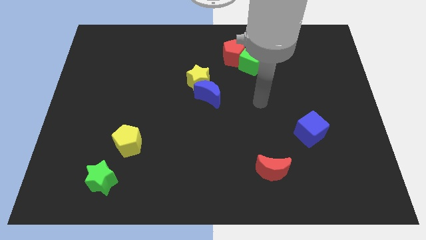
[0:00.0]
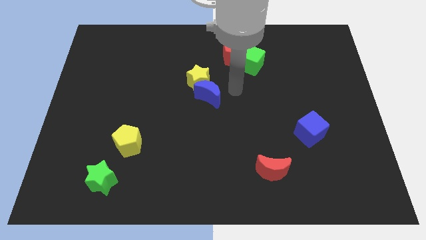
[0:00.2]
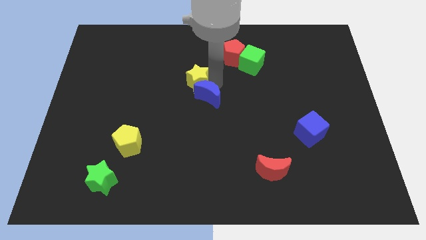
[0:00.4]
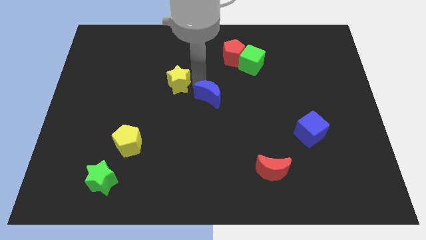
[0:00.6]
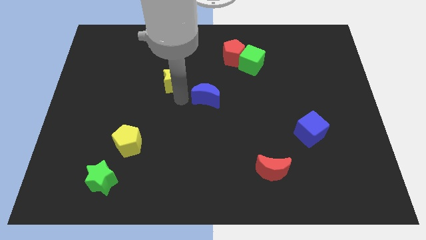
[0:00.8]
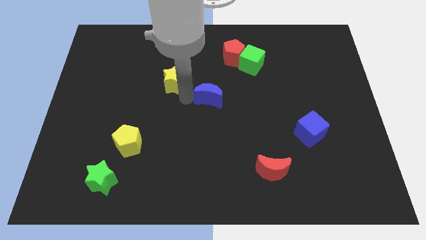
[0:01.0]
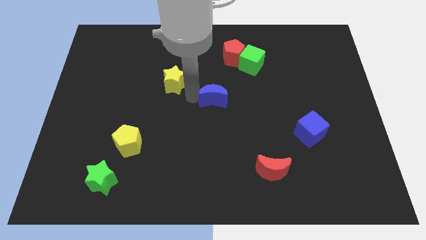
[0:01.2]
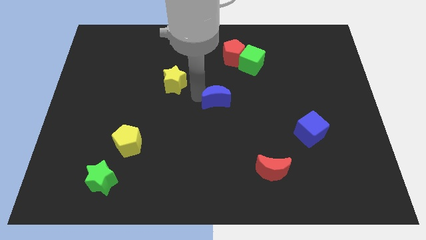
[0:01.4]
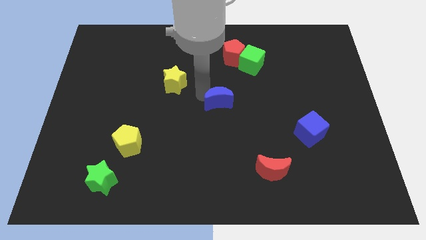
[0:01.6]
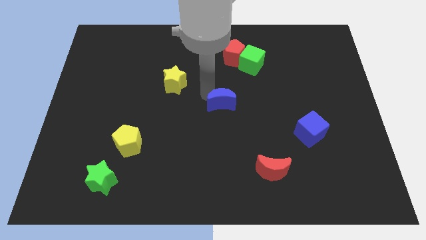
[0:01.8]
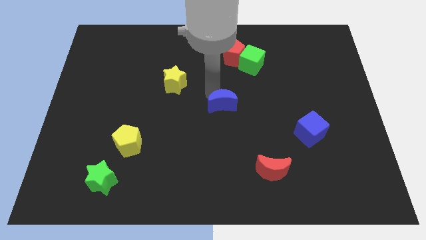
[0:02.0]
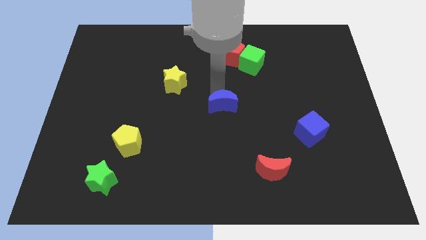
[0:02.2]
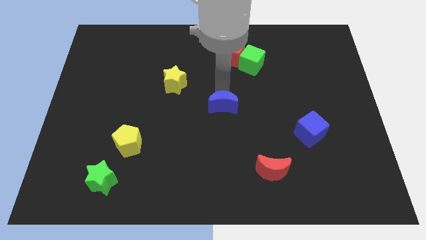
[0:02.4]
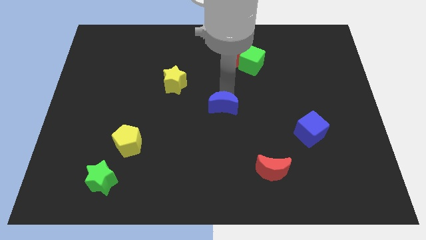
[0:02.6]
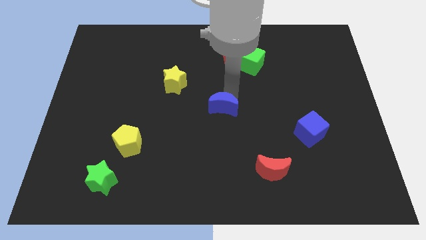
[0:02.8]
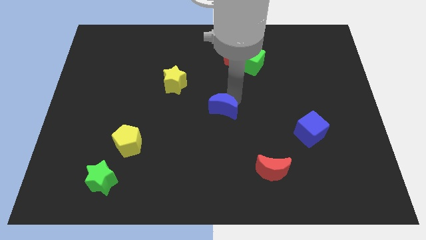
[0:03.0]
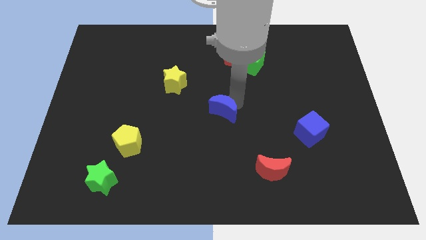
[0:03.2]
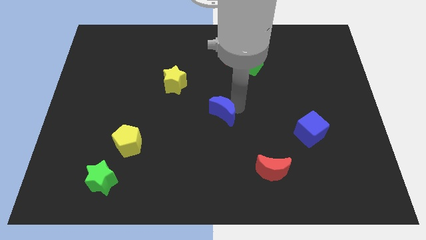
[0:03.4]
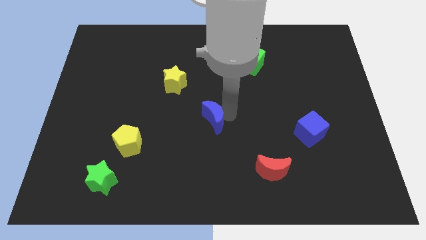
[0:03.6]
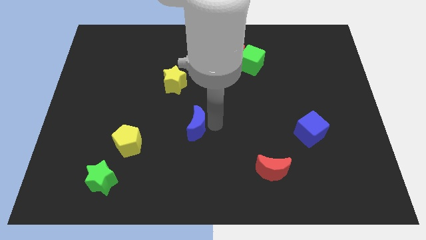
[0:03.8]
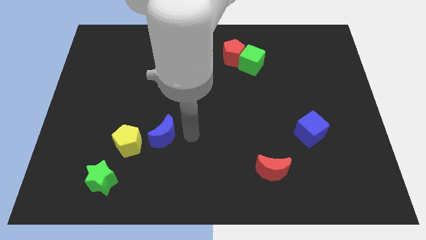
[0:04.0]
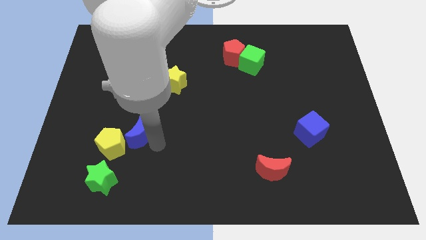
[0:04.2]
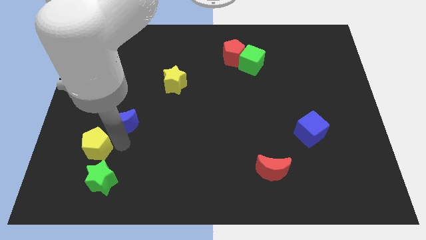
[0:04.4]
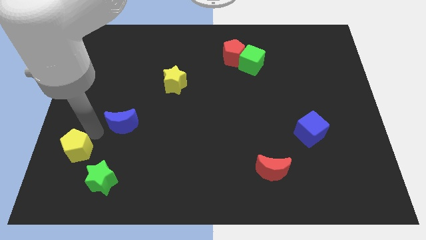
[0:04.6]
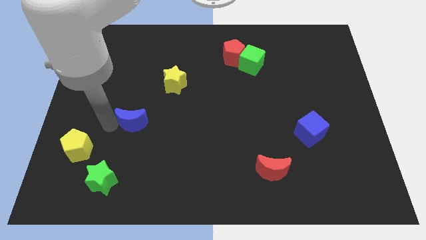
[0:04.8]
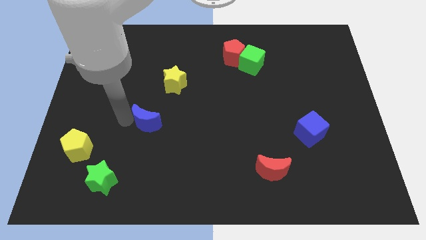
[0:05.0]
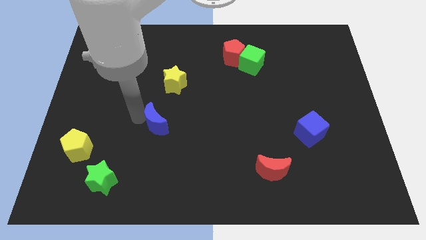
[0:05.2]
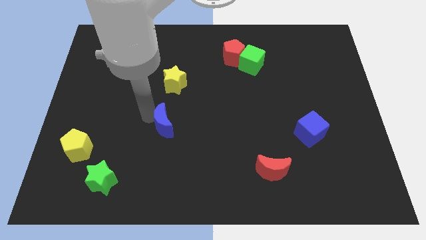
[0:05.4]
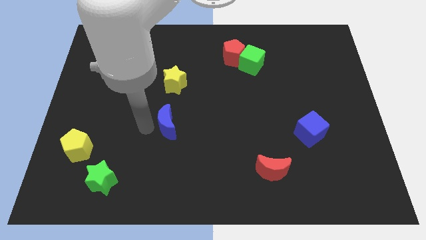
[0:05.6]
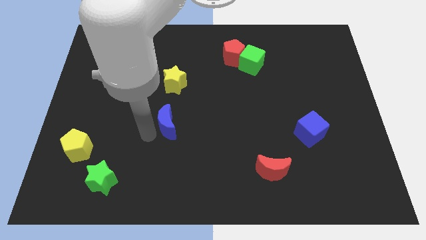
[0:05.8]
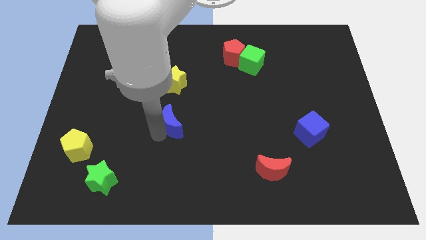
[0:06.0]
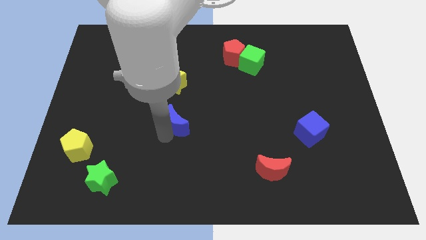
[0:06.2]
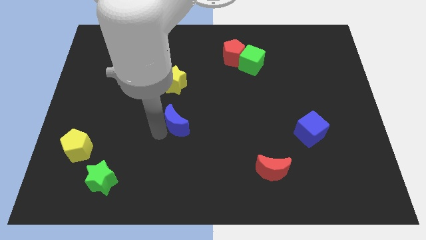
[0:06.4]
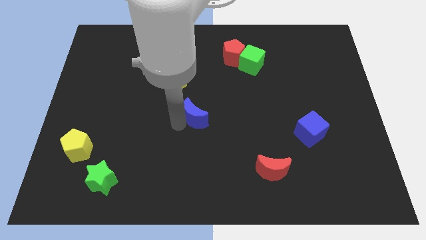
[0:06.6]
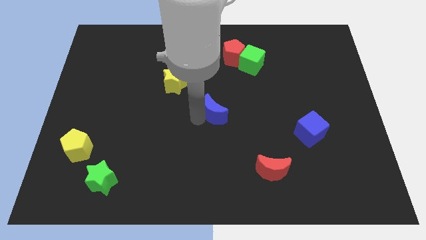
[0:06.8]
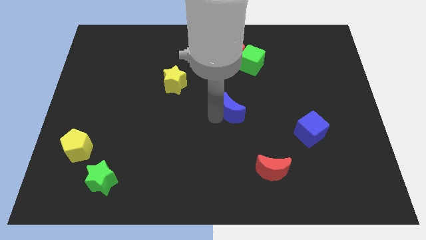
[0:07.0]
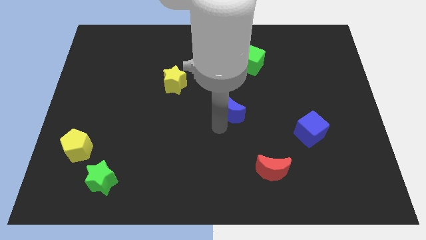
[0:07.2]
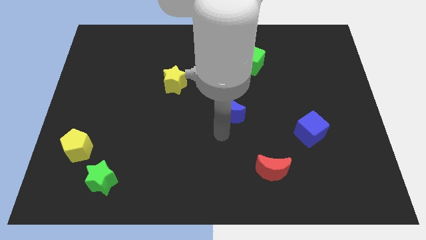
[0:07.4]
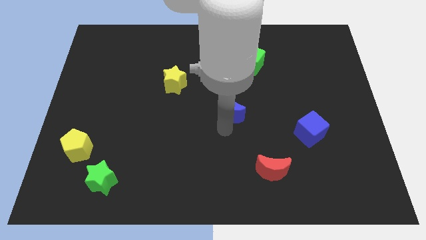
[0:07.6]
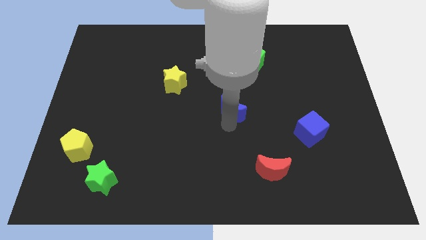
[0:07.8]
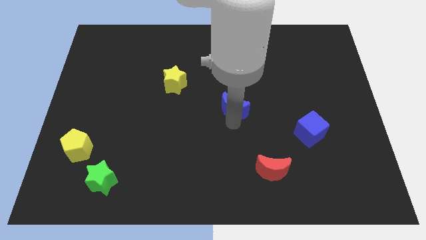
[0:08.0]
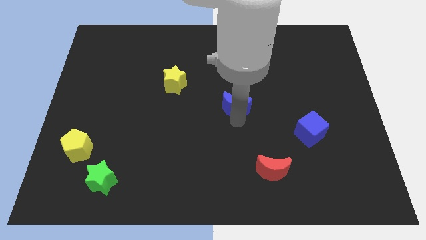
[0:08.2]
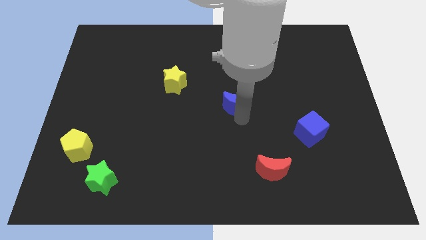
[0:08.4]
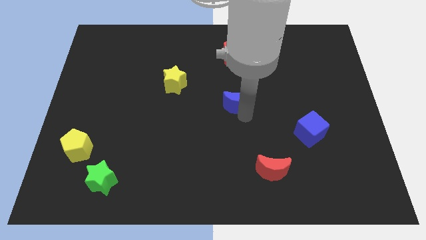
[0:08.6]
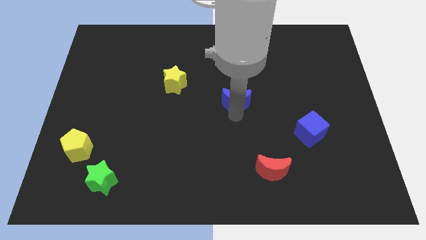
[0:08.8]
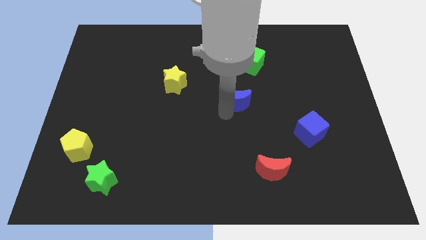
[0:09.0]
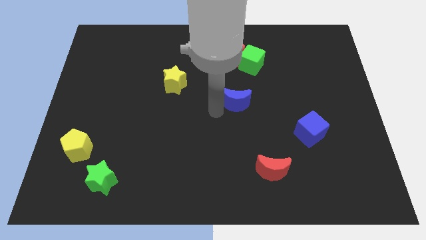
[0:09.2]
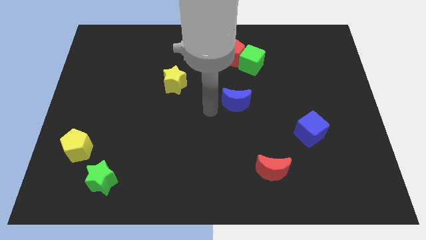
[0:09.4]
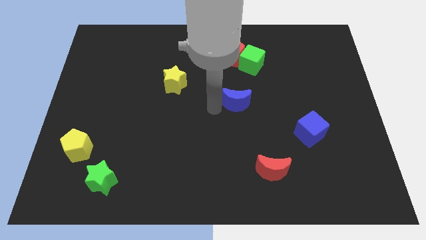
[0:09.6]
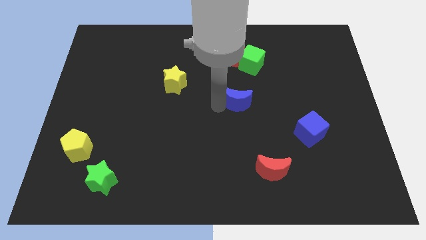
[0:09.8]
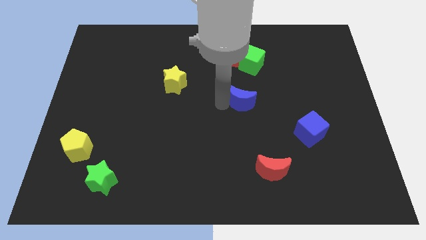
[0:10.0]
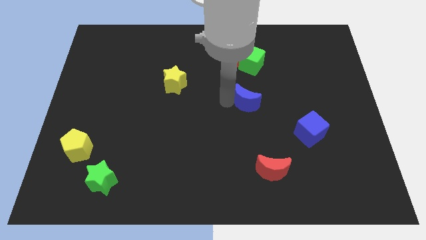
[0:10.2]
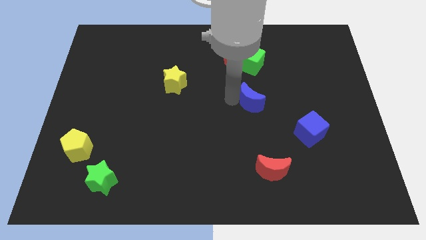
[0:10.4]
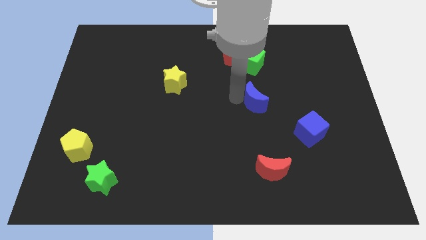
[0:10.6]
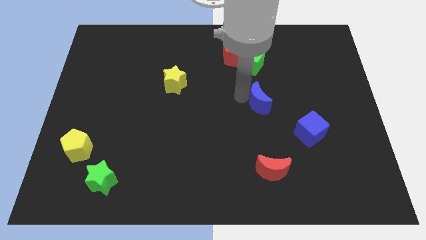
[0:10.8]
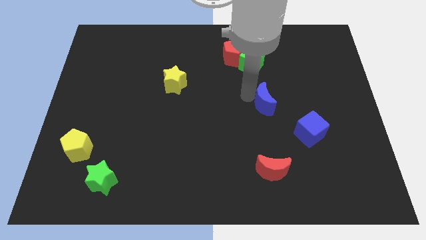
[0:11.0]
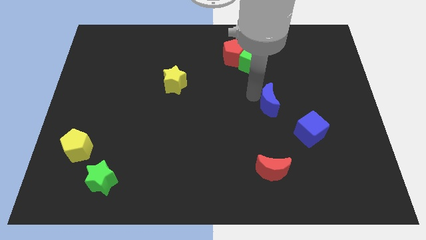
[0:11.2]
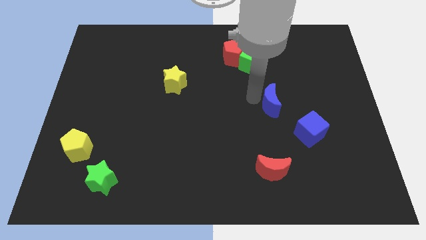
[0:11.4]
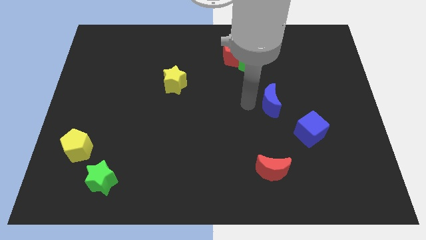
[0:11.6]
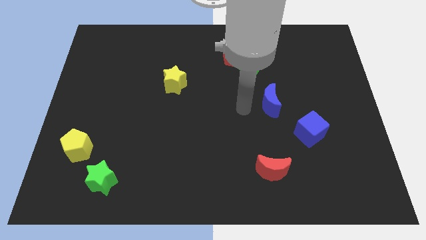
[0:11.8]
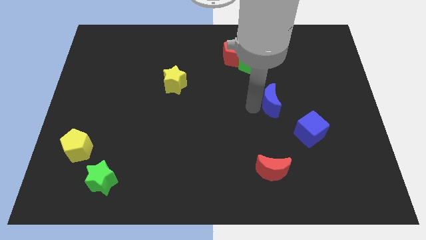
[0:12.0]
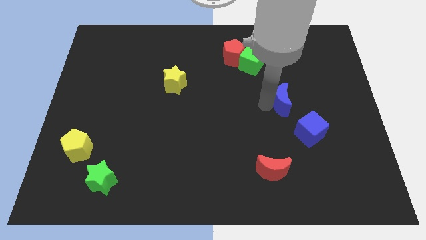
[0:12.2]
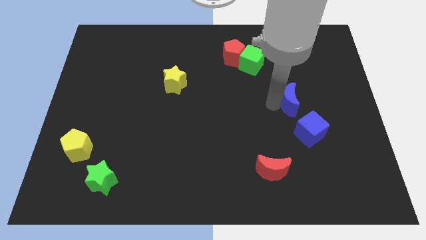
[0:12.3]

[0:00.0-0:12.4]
move the blue moon to the top of the blue cube

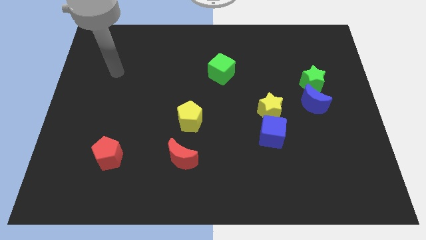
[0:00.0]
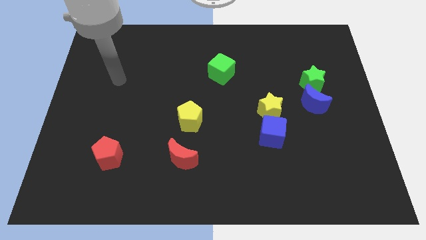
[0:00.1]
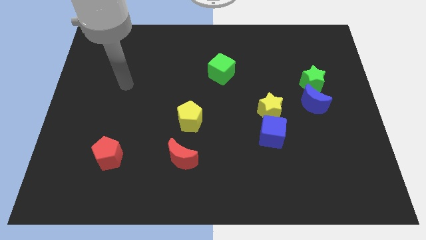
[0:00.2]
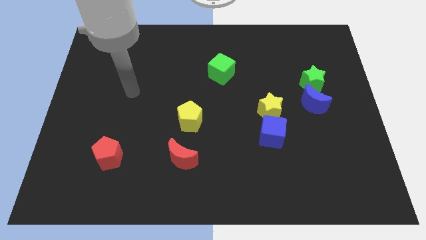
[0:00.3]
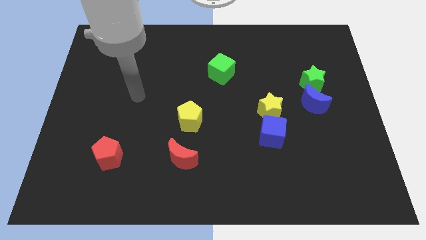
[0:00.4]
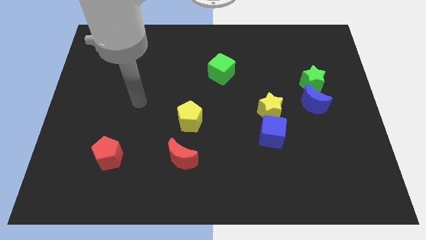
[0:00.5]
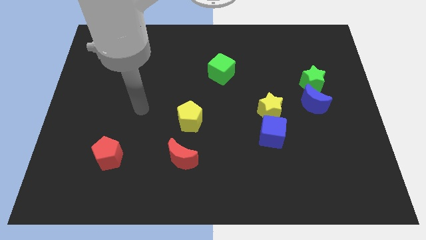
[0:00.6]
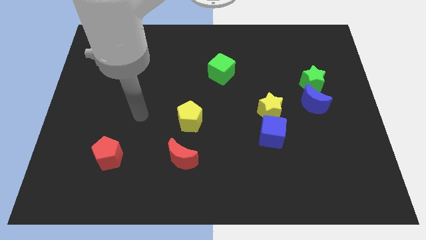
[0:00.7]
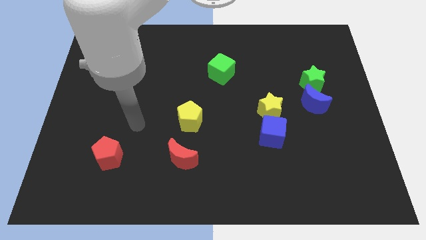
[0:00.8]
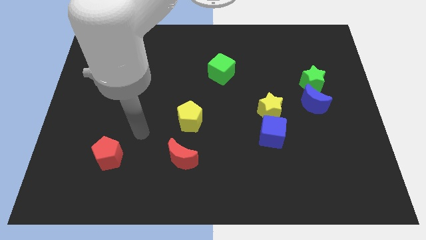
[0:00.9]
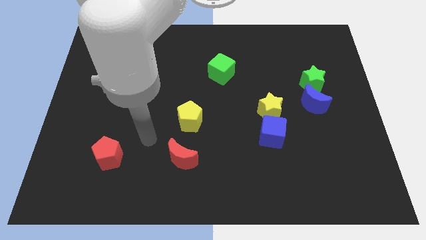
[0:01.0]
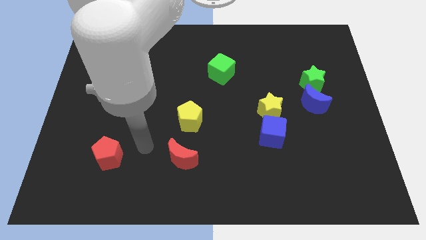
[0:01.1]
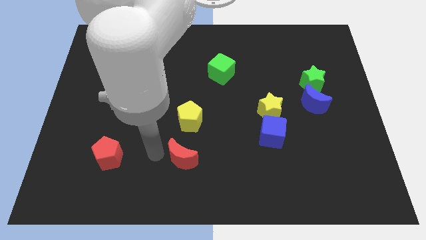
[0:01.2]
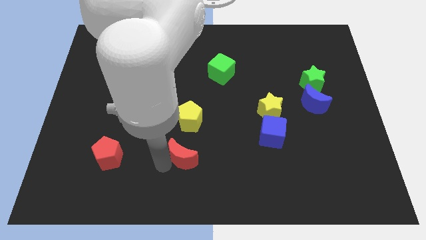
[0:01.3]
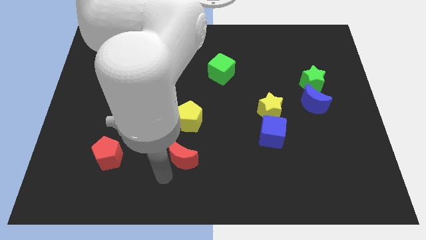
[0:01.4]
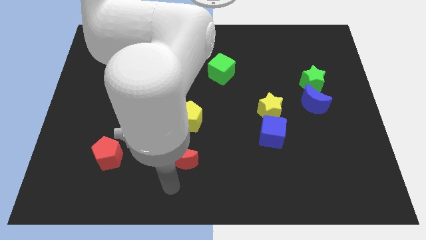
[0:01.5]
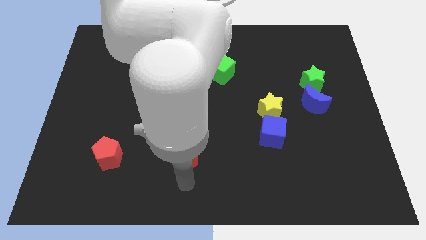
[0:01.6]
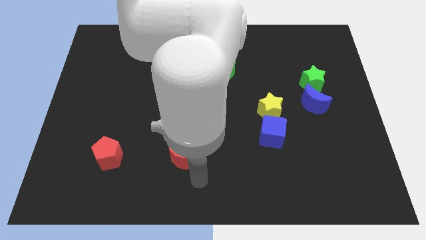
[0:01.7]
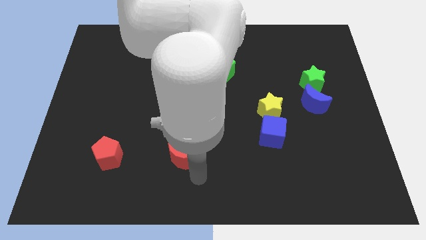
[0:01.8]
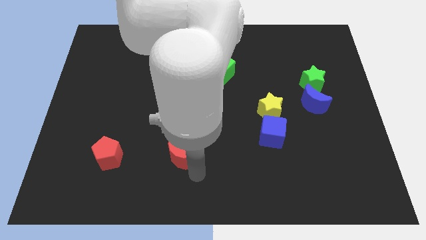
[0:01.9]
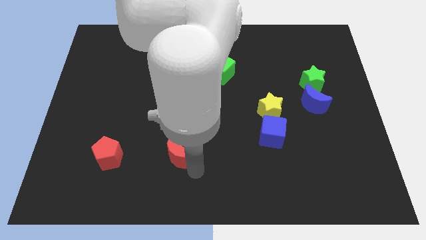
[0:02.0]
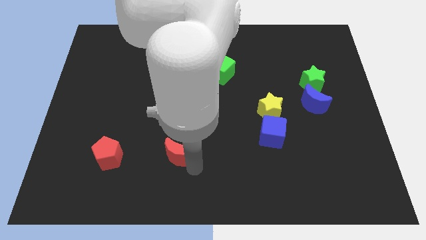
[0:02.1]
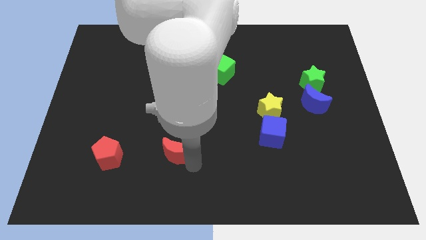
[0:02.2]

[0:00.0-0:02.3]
slide the red moon to the bottom left side of the yellow pentagon
